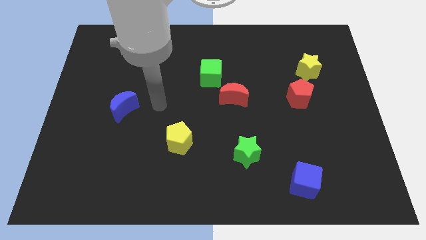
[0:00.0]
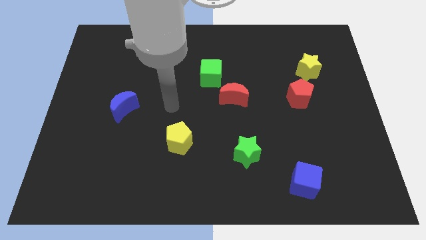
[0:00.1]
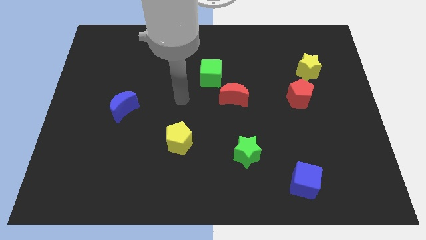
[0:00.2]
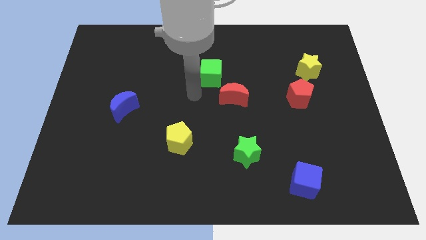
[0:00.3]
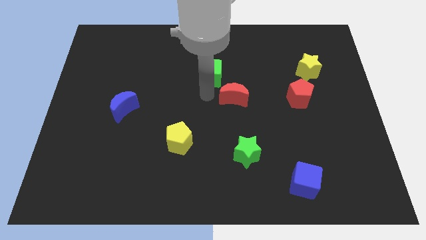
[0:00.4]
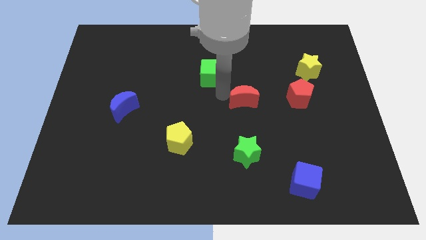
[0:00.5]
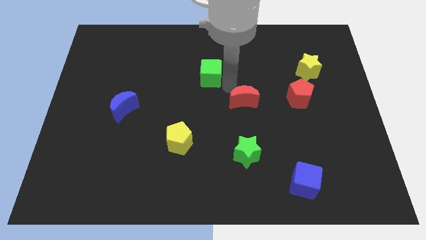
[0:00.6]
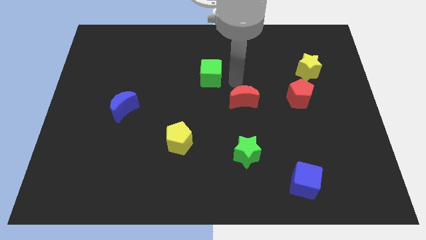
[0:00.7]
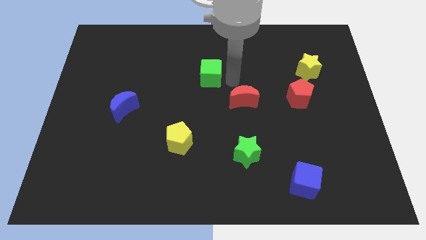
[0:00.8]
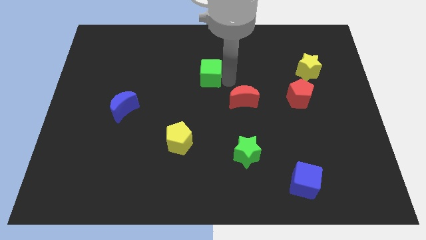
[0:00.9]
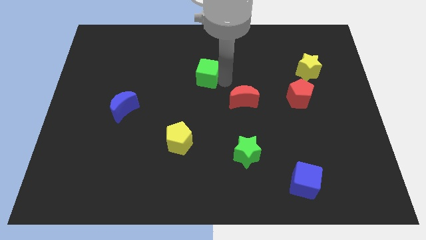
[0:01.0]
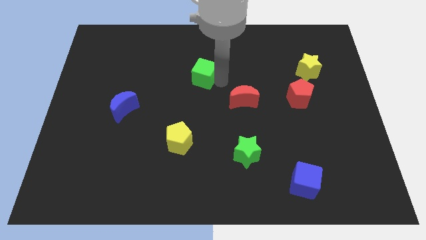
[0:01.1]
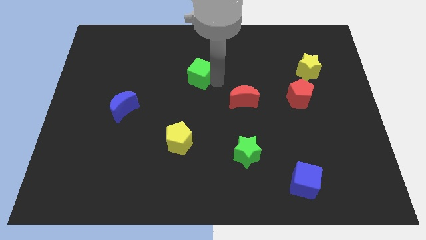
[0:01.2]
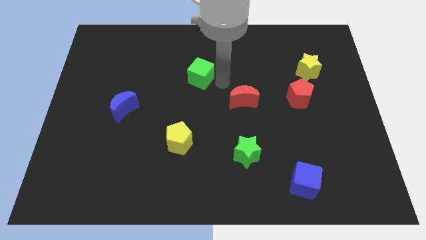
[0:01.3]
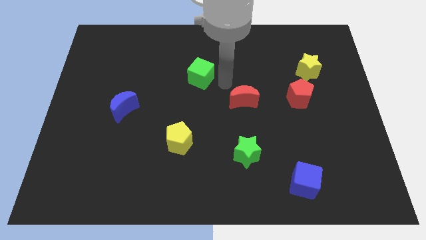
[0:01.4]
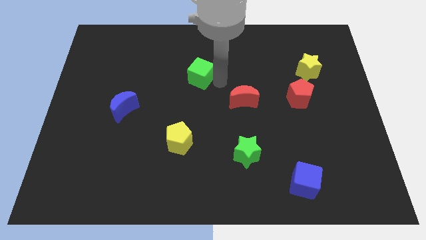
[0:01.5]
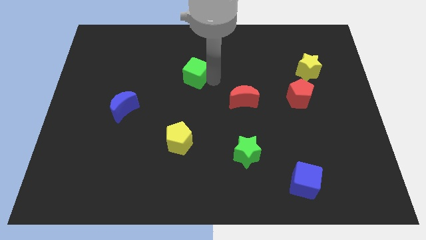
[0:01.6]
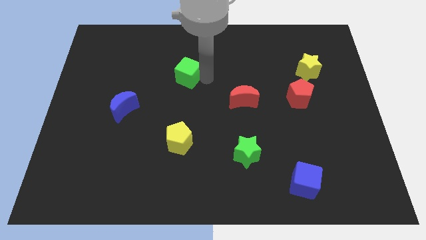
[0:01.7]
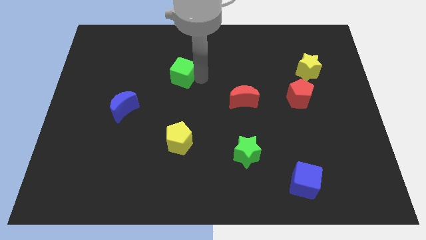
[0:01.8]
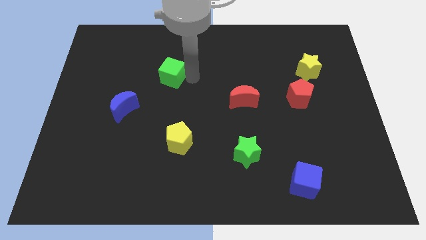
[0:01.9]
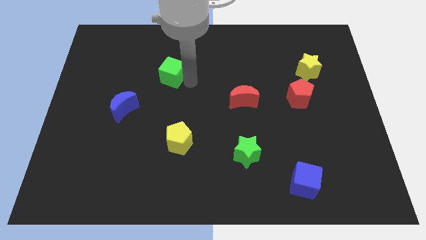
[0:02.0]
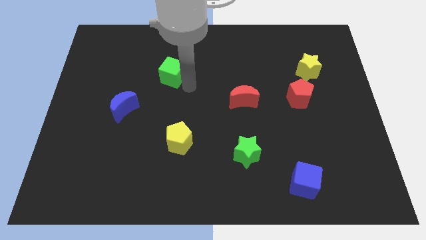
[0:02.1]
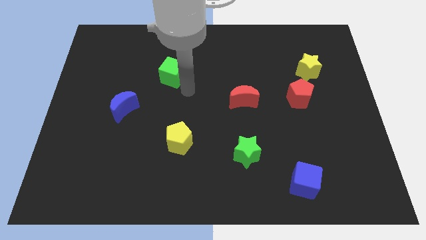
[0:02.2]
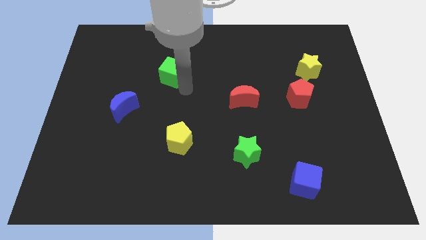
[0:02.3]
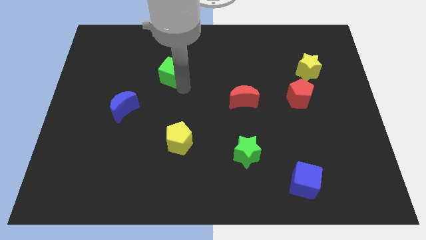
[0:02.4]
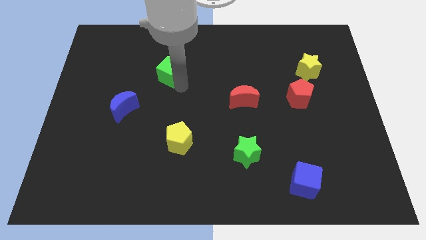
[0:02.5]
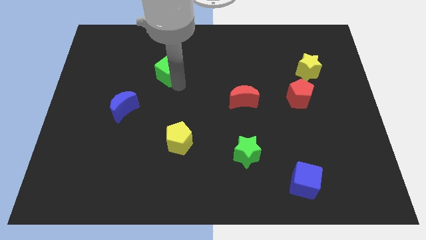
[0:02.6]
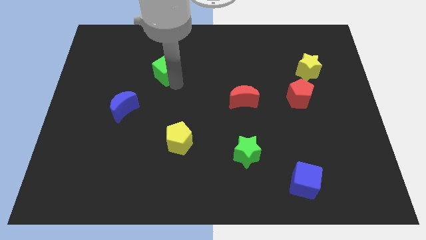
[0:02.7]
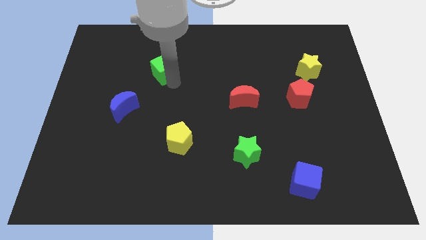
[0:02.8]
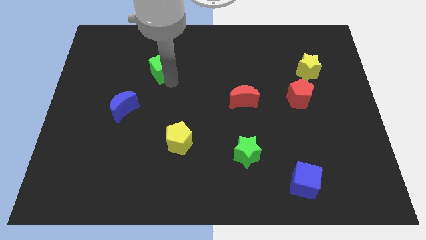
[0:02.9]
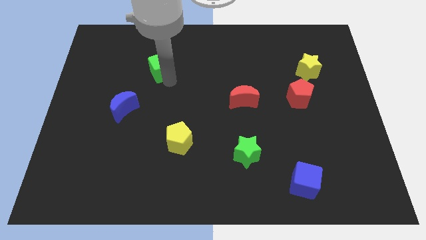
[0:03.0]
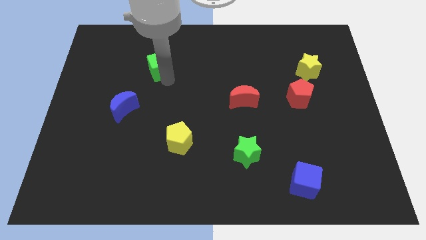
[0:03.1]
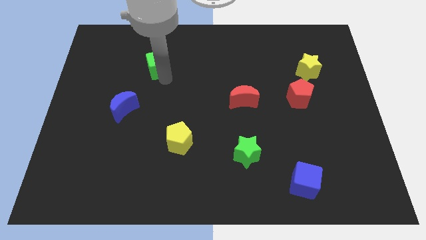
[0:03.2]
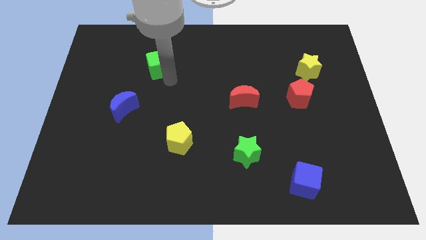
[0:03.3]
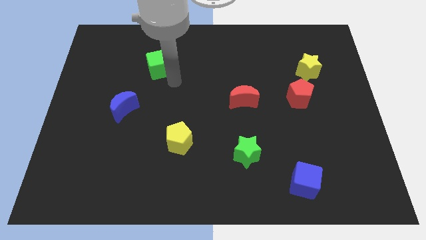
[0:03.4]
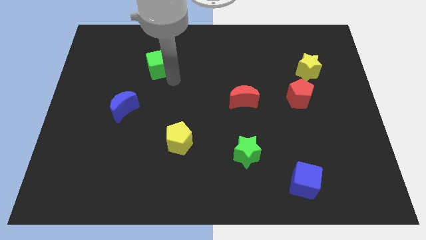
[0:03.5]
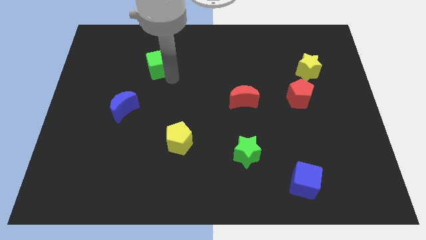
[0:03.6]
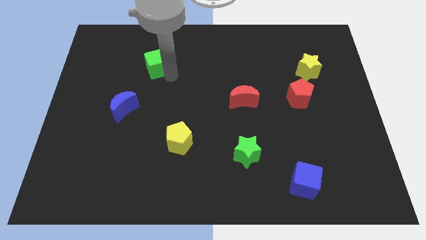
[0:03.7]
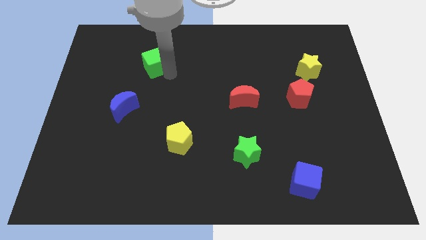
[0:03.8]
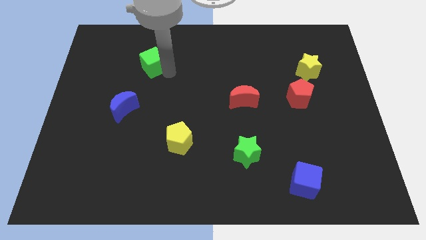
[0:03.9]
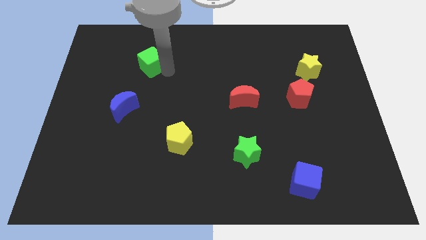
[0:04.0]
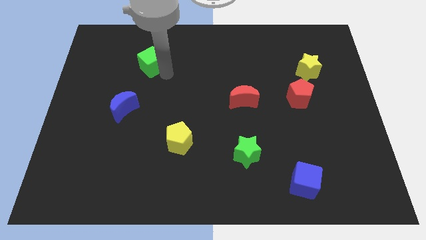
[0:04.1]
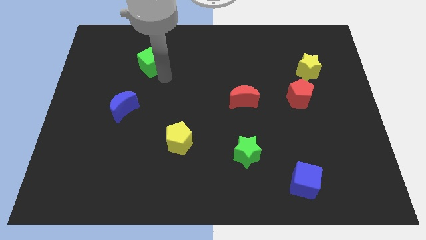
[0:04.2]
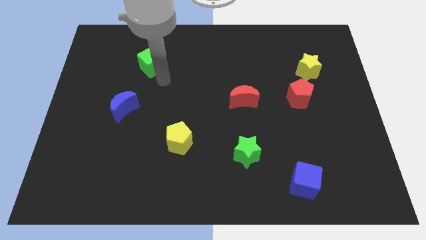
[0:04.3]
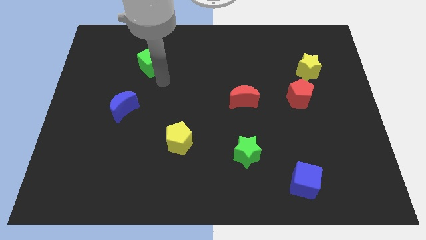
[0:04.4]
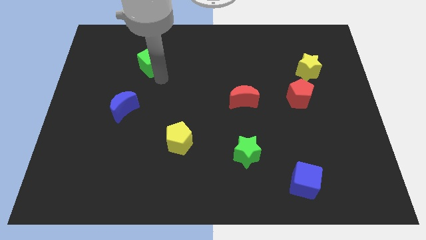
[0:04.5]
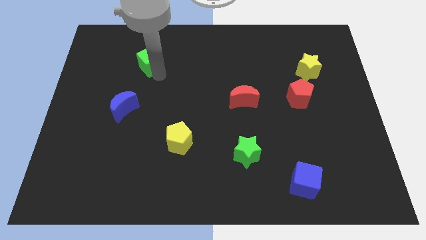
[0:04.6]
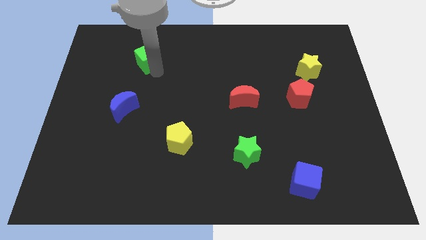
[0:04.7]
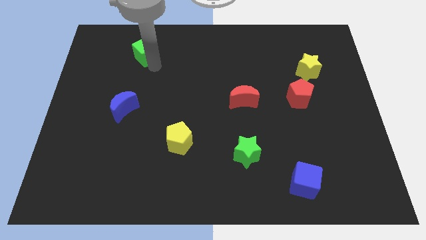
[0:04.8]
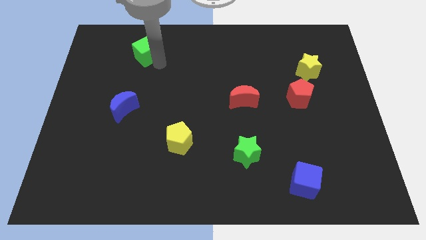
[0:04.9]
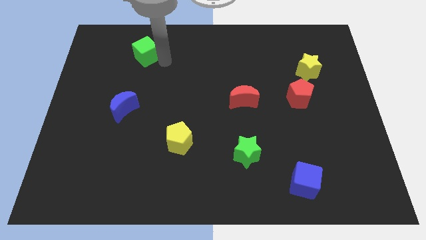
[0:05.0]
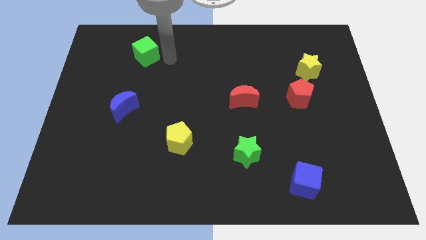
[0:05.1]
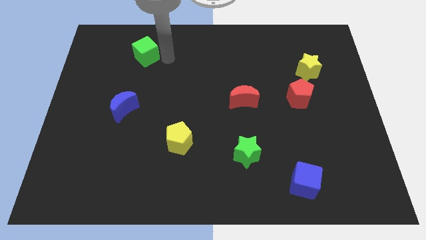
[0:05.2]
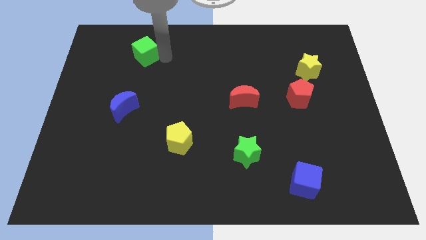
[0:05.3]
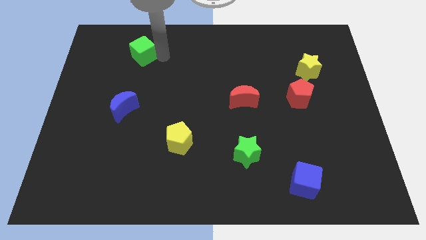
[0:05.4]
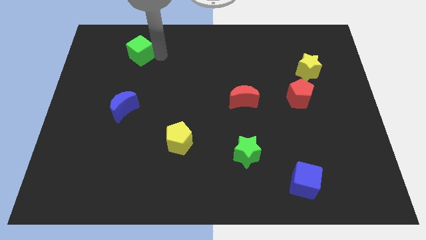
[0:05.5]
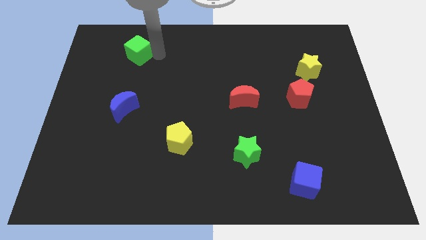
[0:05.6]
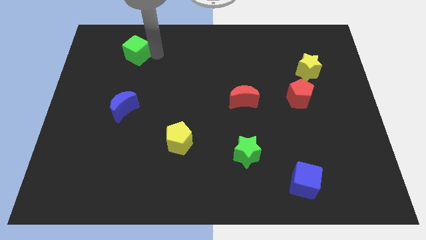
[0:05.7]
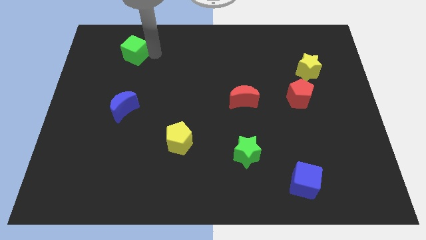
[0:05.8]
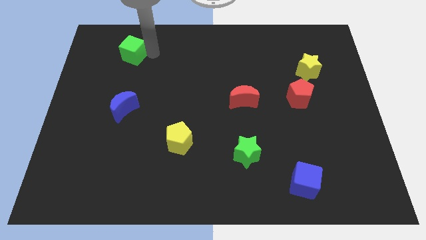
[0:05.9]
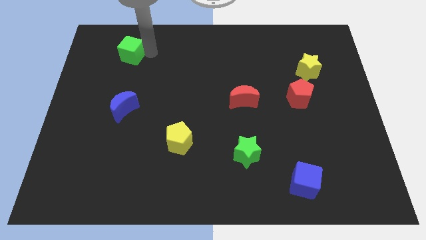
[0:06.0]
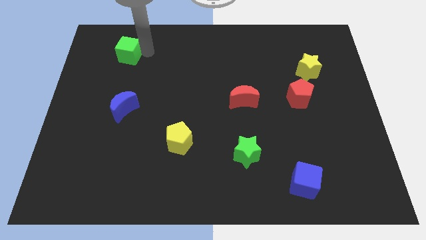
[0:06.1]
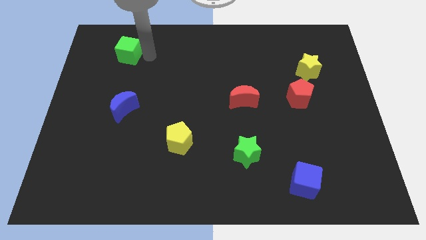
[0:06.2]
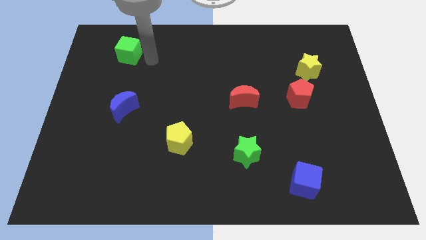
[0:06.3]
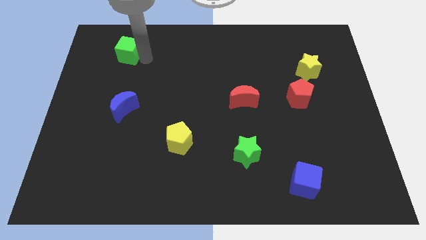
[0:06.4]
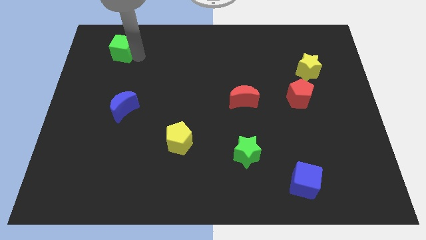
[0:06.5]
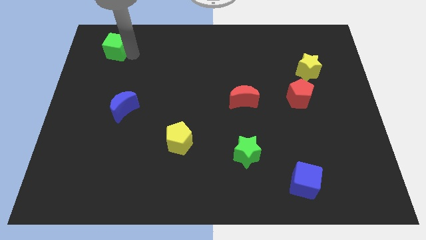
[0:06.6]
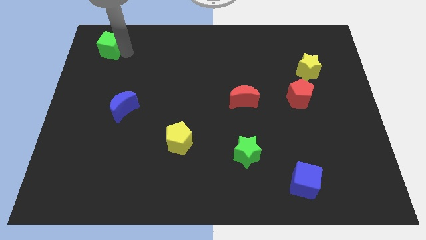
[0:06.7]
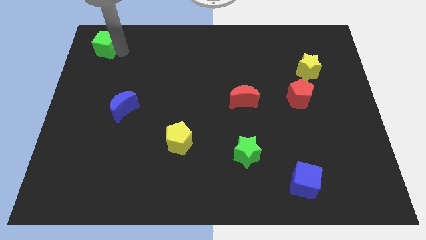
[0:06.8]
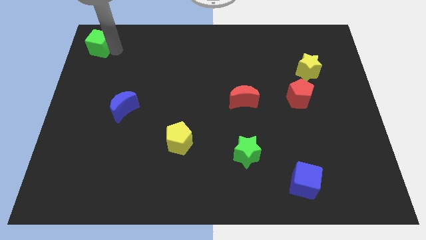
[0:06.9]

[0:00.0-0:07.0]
put the green cube to the upper left corner
